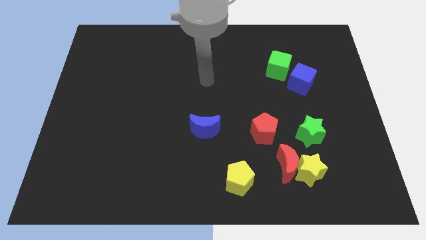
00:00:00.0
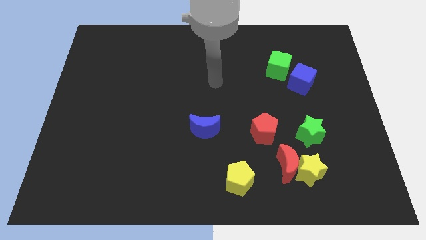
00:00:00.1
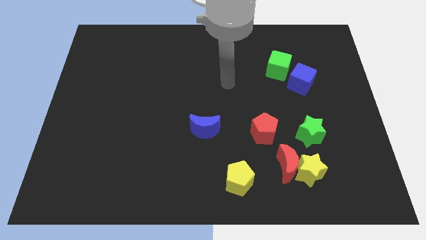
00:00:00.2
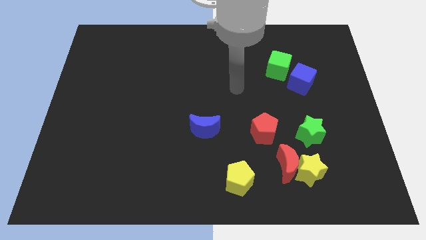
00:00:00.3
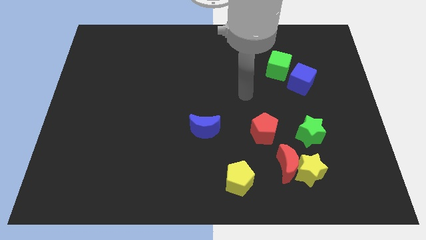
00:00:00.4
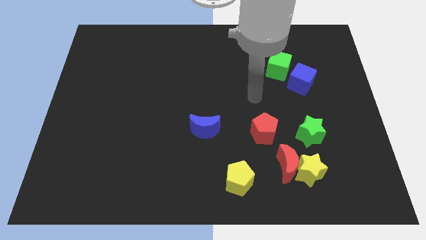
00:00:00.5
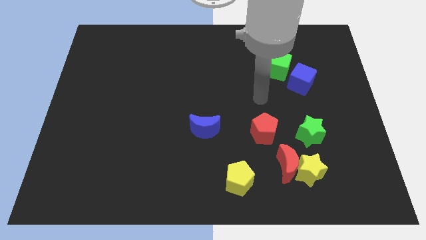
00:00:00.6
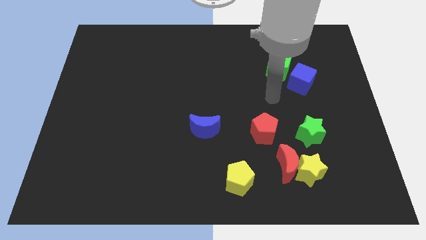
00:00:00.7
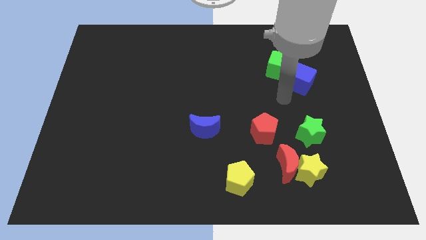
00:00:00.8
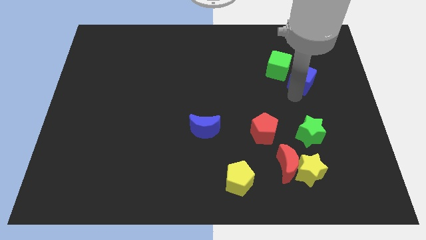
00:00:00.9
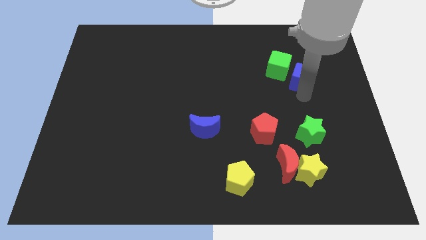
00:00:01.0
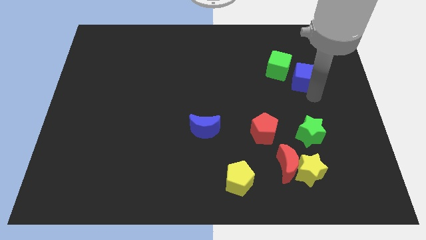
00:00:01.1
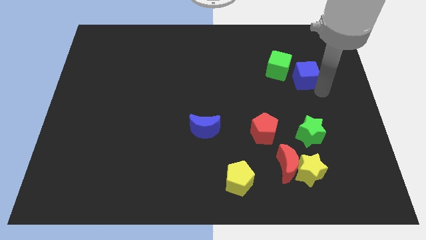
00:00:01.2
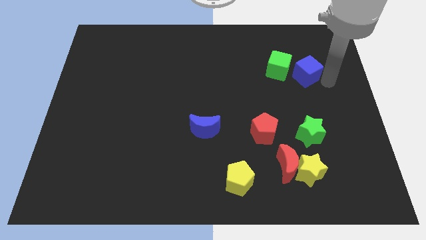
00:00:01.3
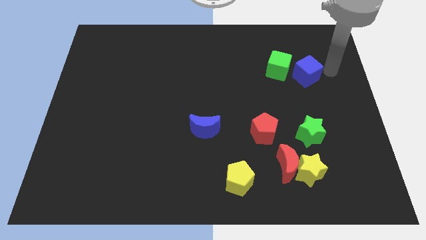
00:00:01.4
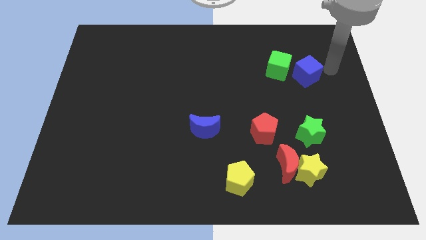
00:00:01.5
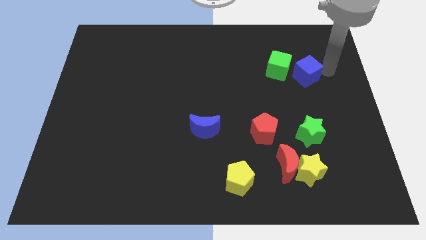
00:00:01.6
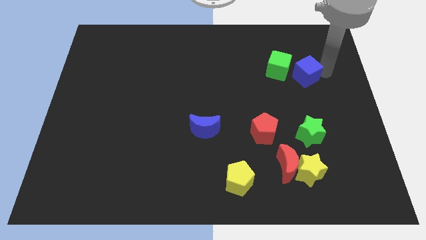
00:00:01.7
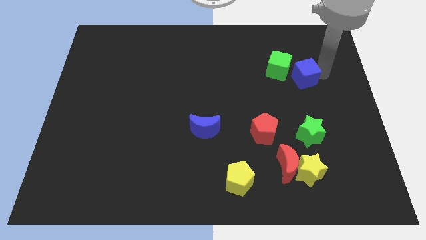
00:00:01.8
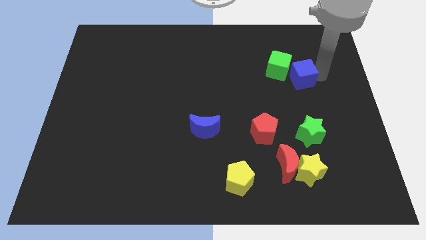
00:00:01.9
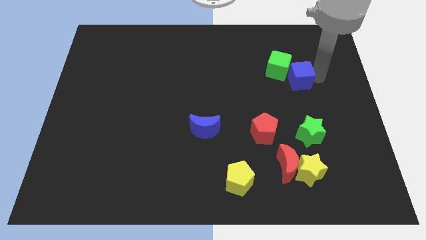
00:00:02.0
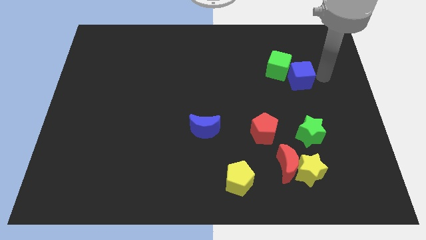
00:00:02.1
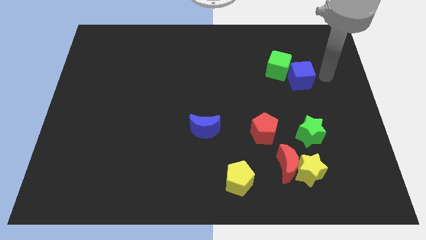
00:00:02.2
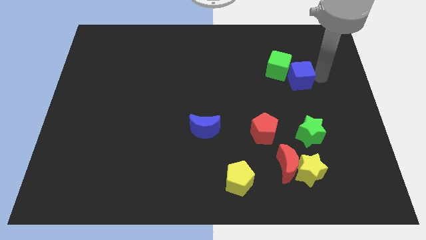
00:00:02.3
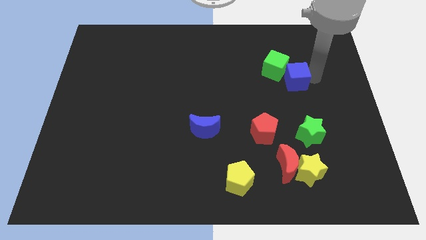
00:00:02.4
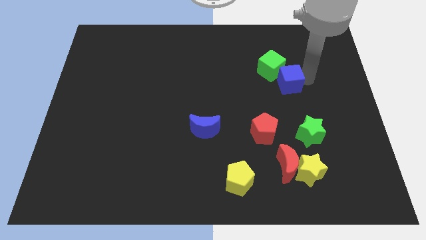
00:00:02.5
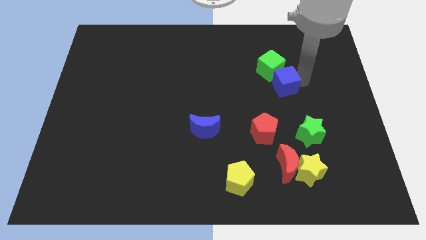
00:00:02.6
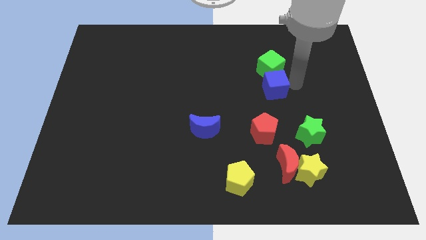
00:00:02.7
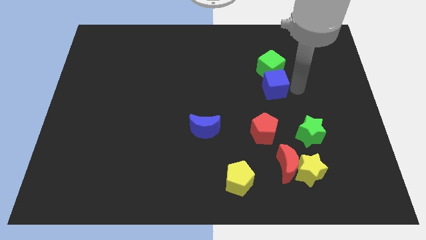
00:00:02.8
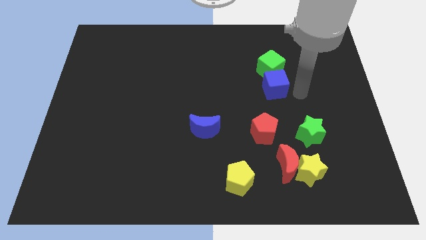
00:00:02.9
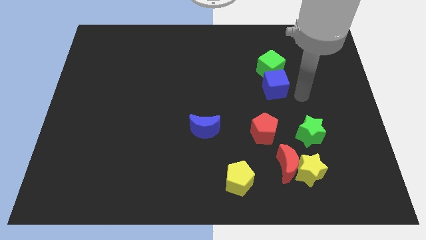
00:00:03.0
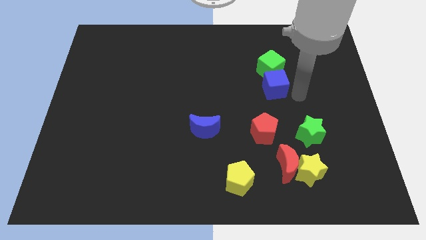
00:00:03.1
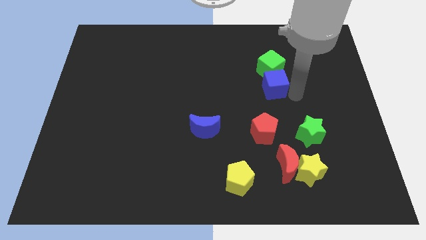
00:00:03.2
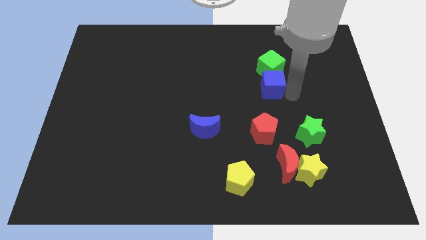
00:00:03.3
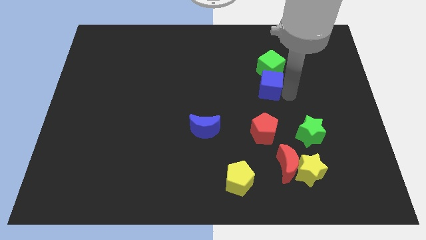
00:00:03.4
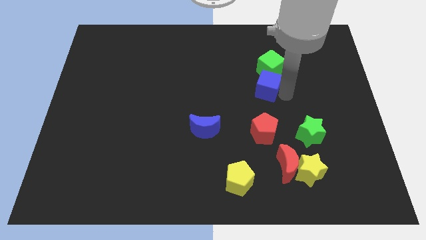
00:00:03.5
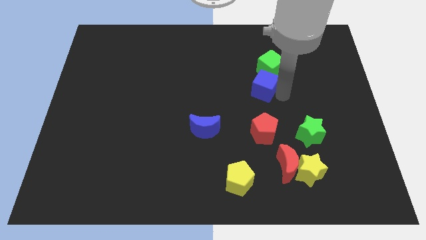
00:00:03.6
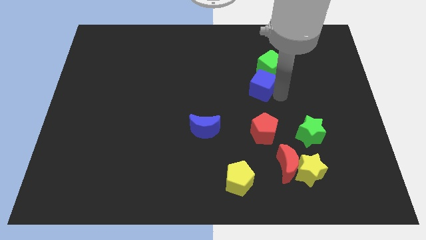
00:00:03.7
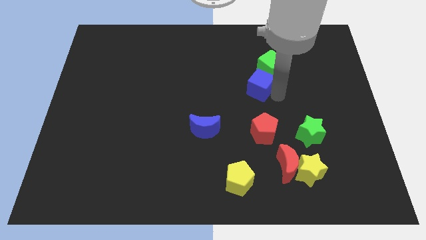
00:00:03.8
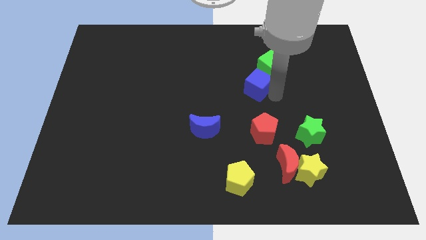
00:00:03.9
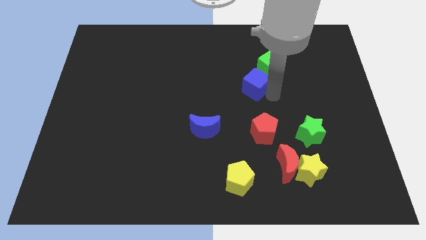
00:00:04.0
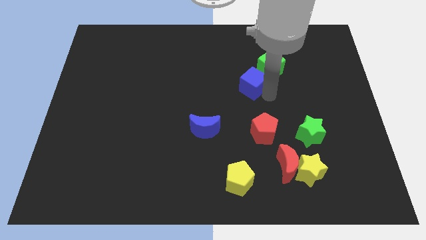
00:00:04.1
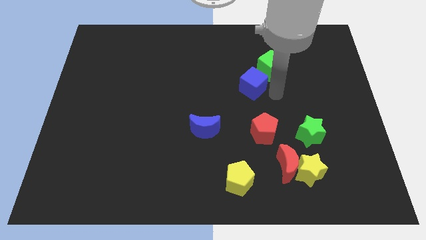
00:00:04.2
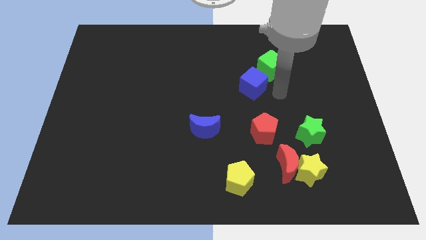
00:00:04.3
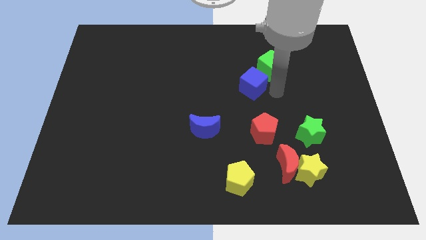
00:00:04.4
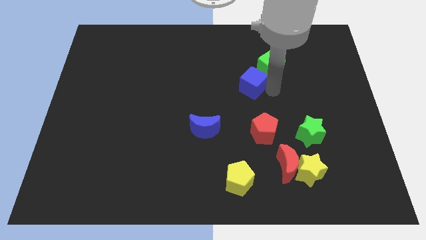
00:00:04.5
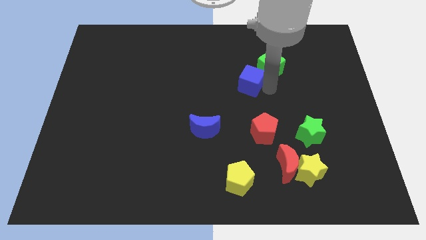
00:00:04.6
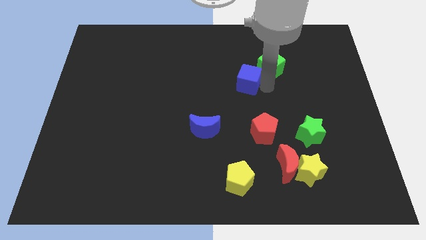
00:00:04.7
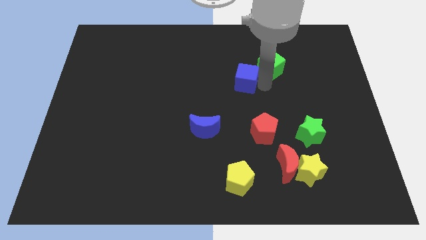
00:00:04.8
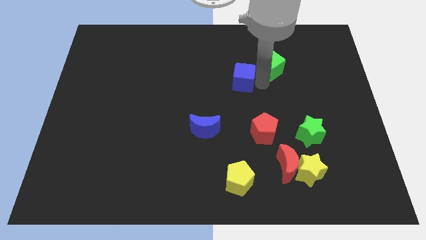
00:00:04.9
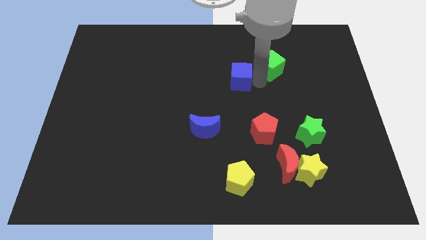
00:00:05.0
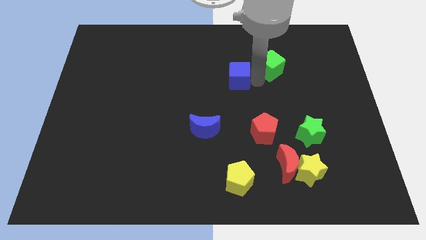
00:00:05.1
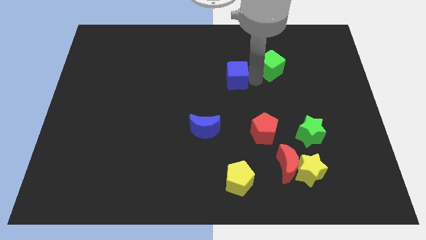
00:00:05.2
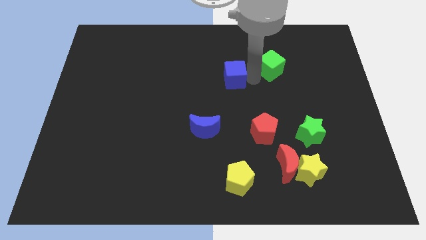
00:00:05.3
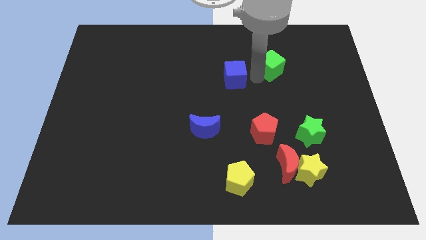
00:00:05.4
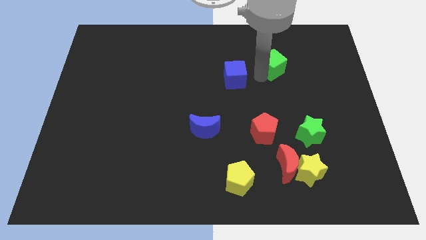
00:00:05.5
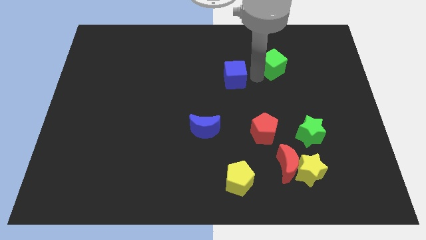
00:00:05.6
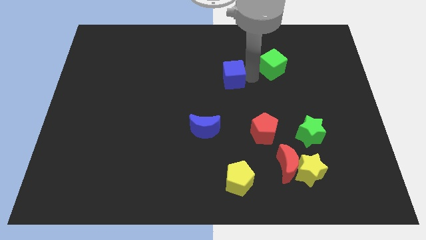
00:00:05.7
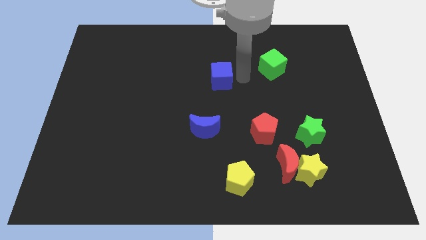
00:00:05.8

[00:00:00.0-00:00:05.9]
slide the blue cube left

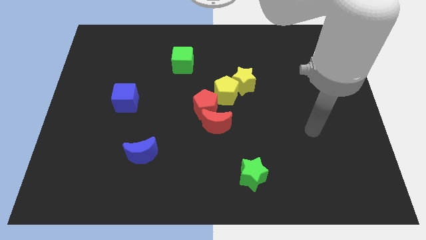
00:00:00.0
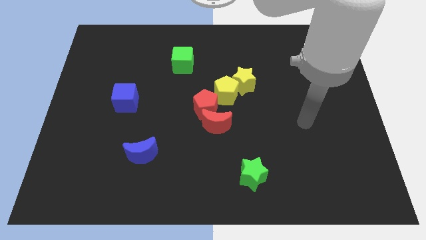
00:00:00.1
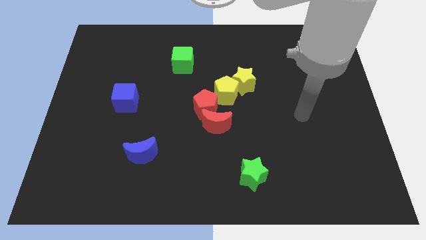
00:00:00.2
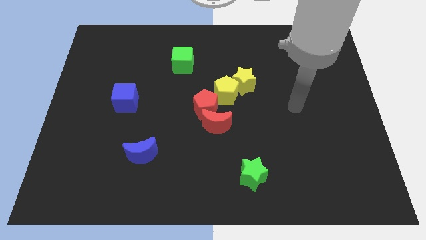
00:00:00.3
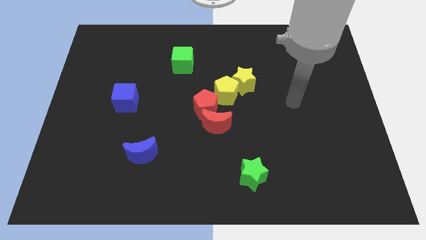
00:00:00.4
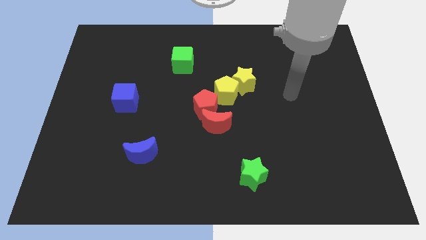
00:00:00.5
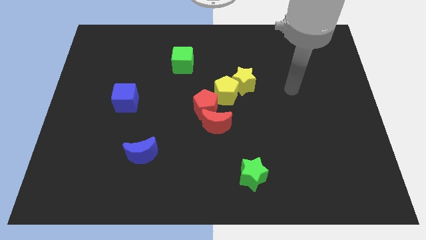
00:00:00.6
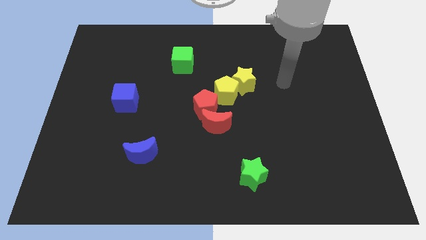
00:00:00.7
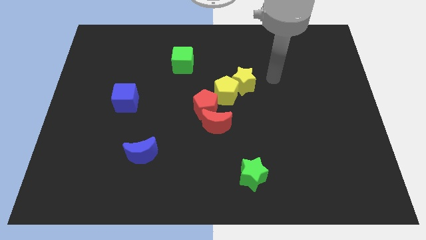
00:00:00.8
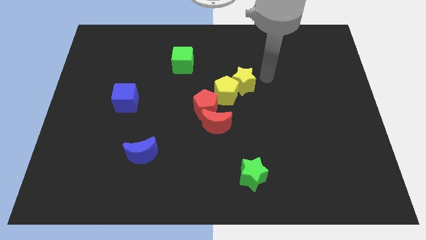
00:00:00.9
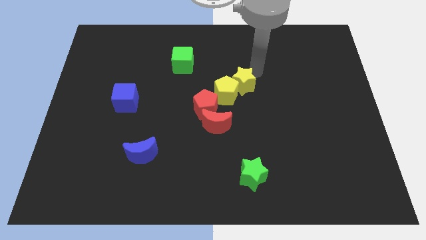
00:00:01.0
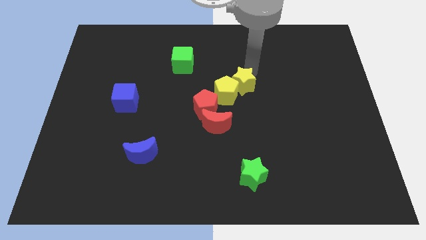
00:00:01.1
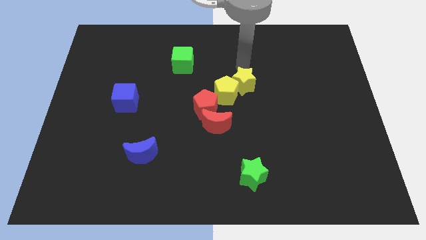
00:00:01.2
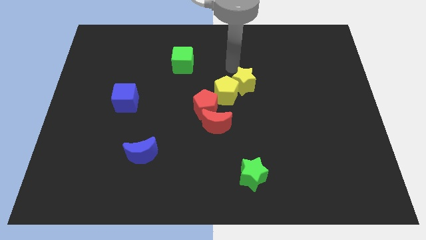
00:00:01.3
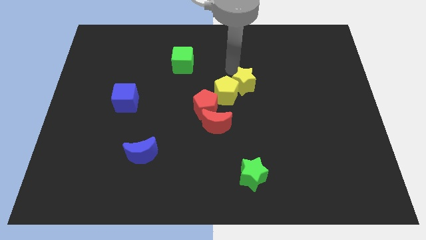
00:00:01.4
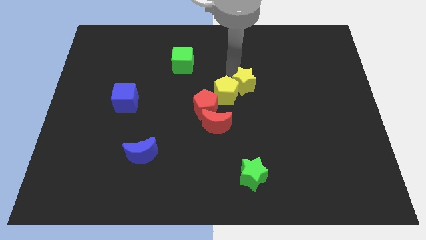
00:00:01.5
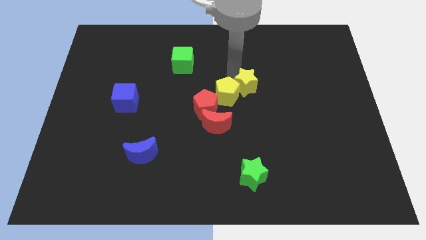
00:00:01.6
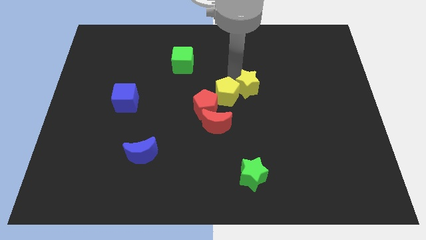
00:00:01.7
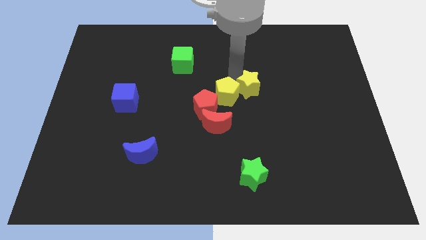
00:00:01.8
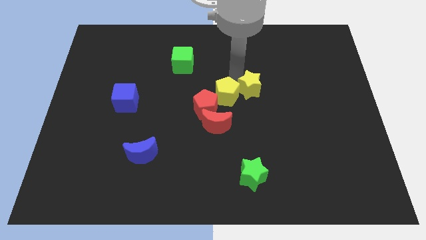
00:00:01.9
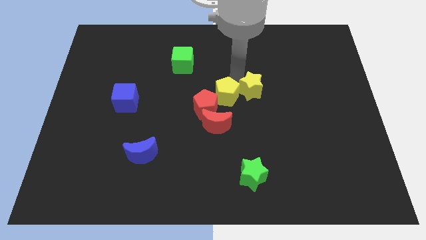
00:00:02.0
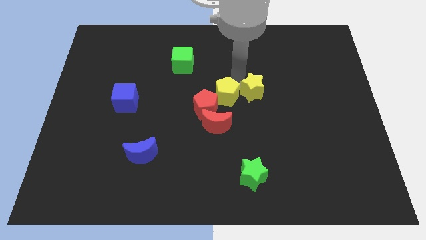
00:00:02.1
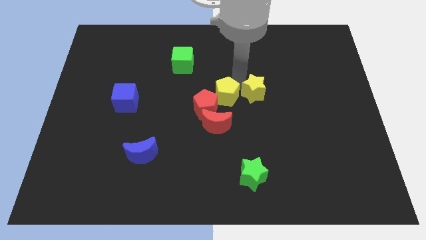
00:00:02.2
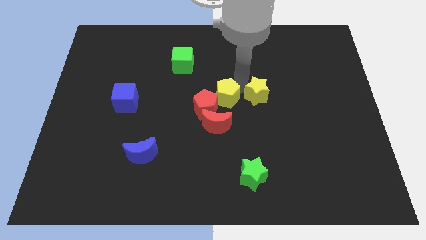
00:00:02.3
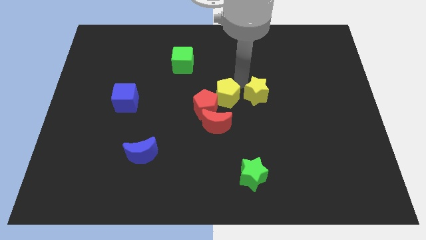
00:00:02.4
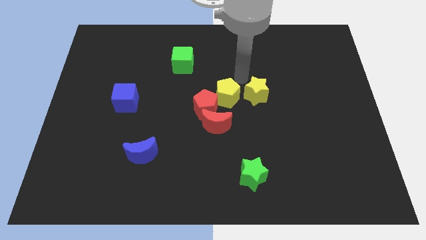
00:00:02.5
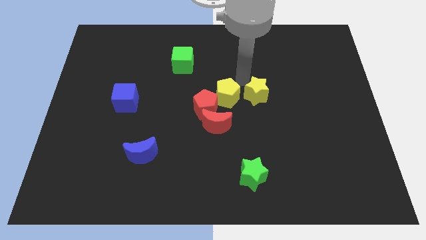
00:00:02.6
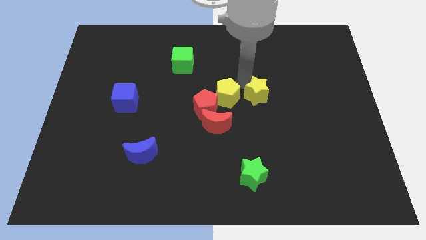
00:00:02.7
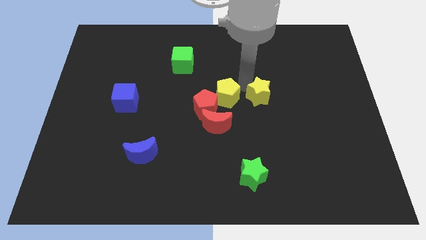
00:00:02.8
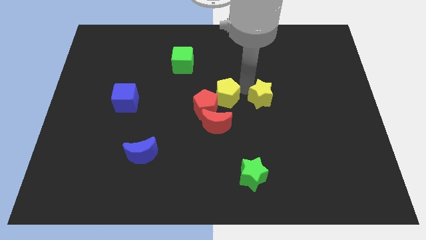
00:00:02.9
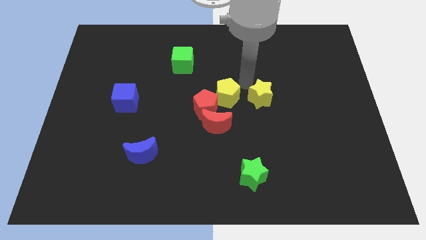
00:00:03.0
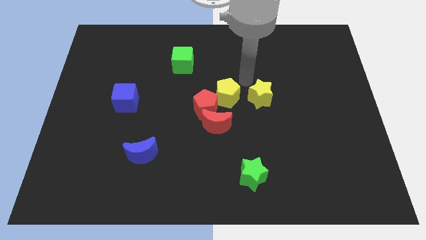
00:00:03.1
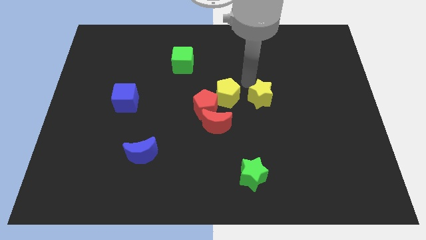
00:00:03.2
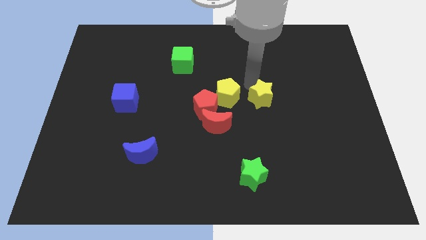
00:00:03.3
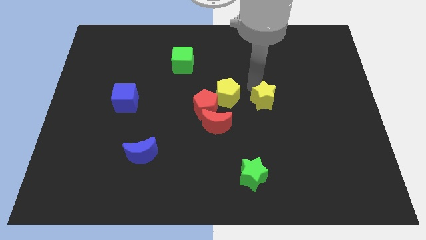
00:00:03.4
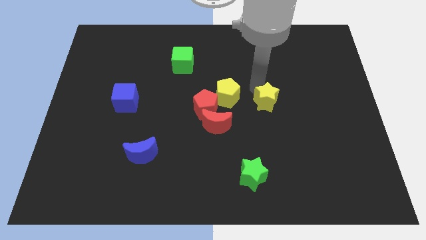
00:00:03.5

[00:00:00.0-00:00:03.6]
slightly slide the yellow star down and right
